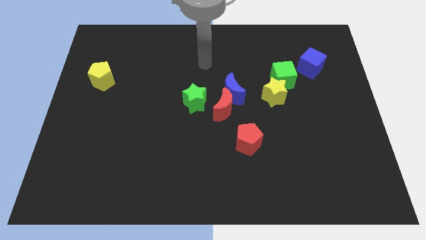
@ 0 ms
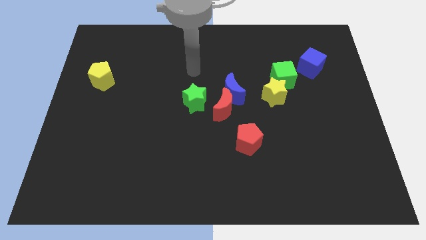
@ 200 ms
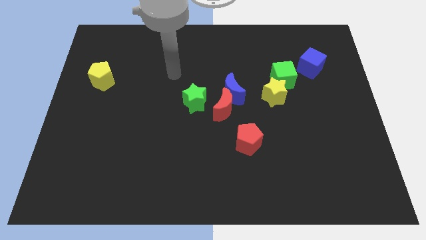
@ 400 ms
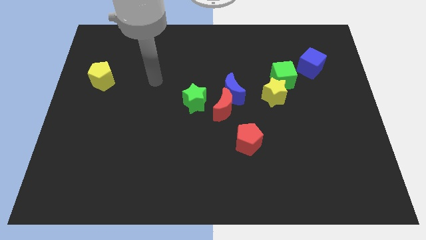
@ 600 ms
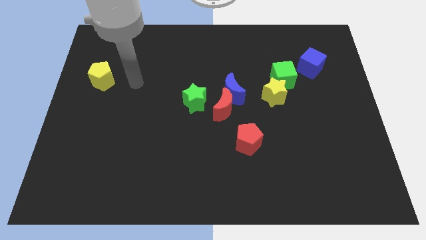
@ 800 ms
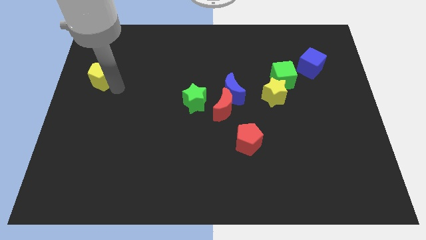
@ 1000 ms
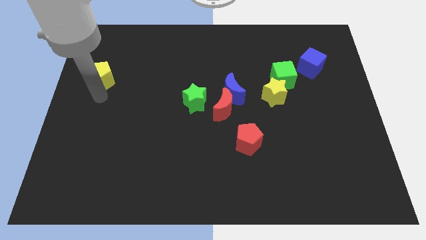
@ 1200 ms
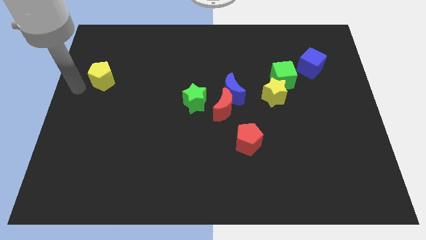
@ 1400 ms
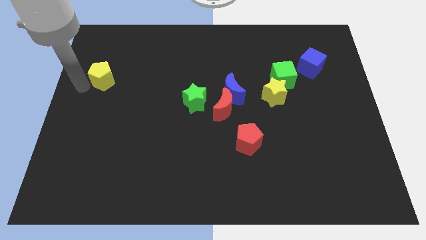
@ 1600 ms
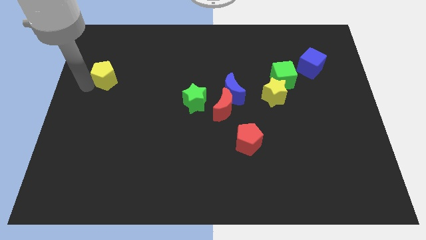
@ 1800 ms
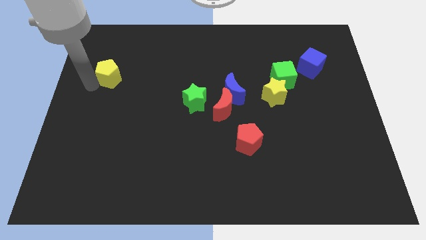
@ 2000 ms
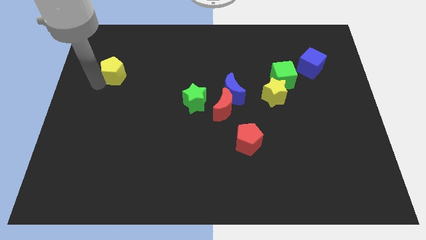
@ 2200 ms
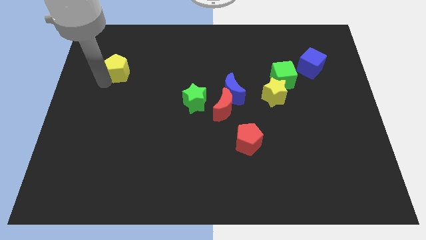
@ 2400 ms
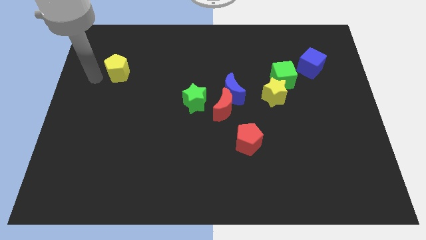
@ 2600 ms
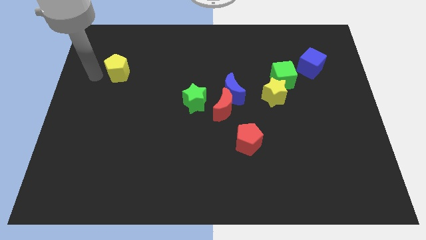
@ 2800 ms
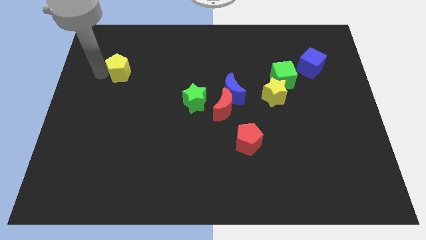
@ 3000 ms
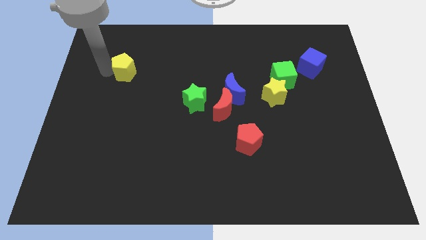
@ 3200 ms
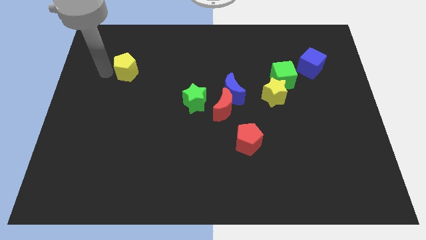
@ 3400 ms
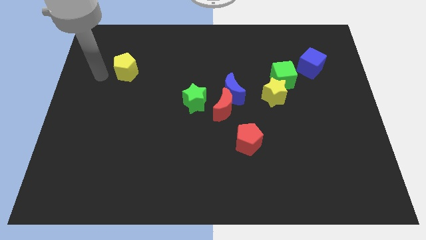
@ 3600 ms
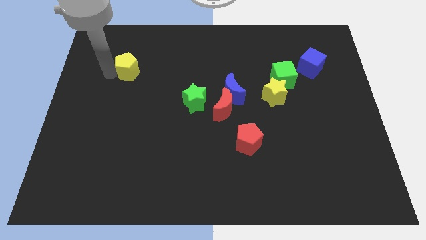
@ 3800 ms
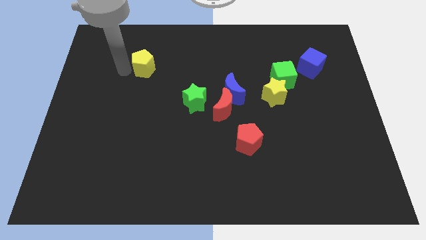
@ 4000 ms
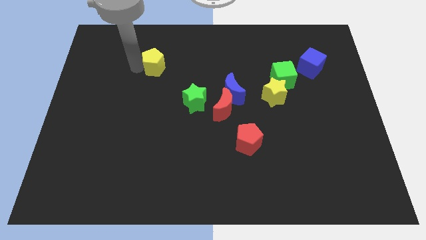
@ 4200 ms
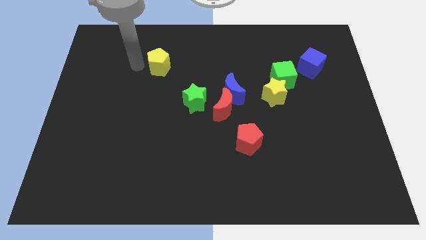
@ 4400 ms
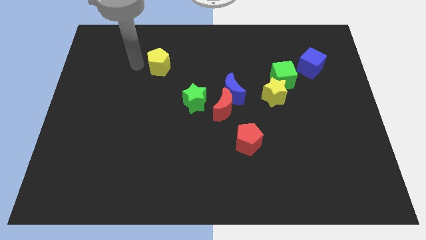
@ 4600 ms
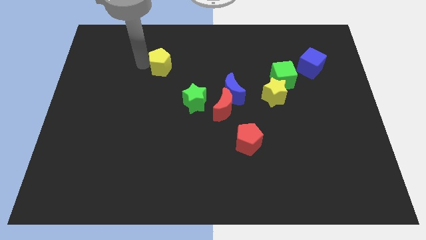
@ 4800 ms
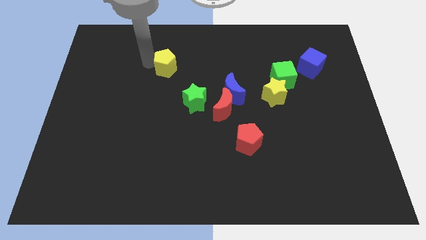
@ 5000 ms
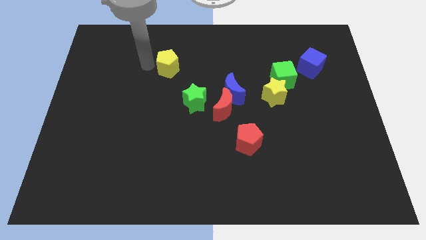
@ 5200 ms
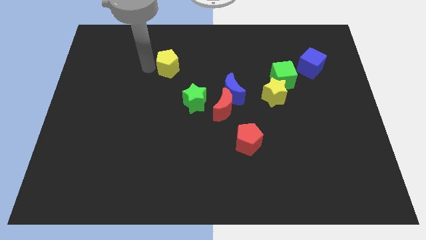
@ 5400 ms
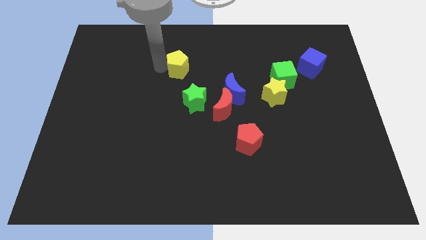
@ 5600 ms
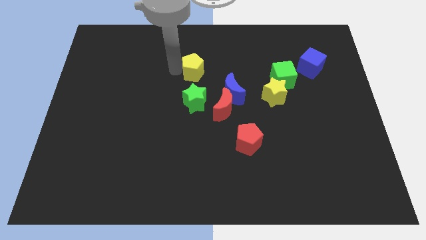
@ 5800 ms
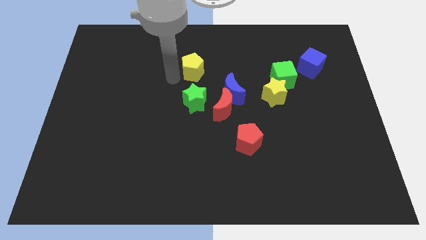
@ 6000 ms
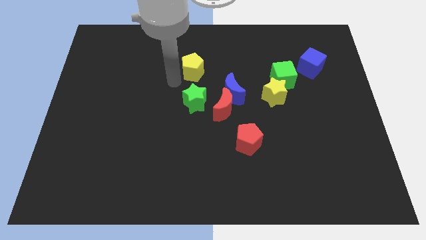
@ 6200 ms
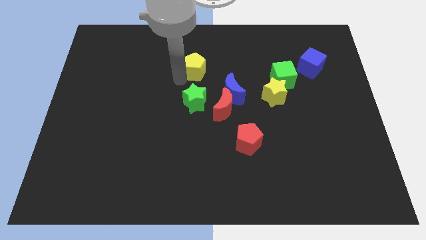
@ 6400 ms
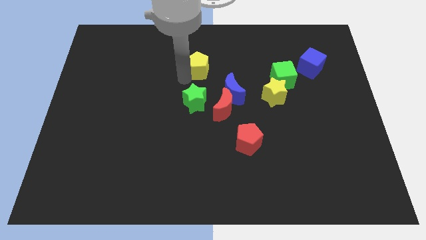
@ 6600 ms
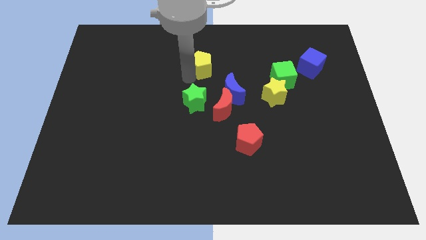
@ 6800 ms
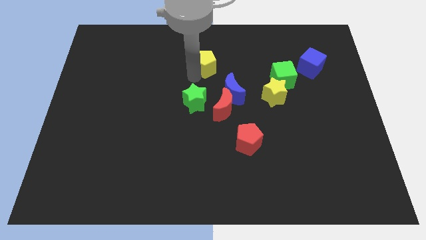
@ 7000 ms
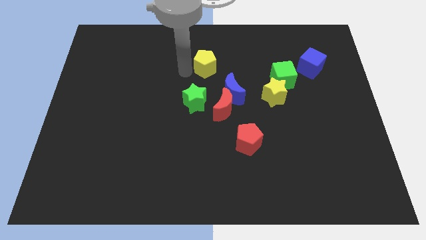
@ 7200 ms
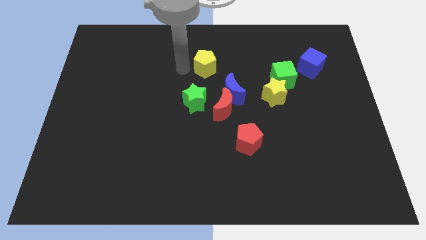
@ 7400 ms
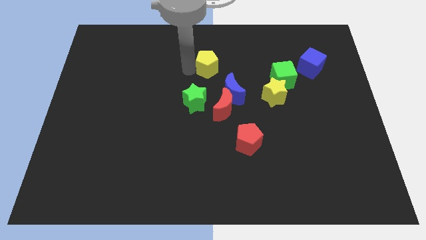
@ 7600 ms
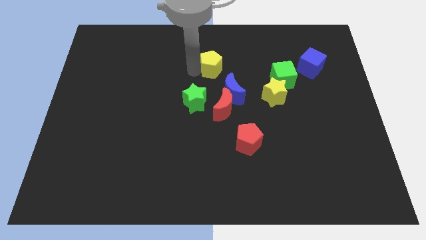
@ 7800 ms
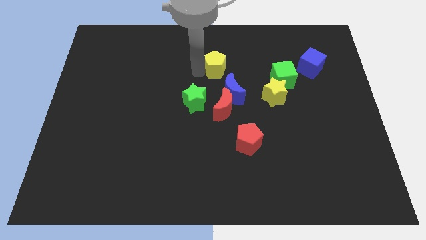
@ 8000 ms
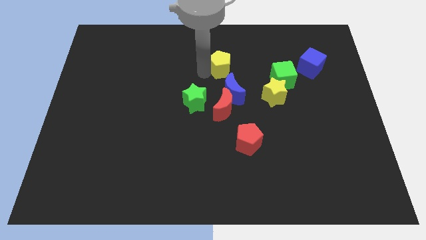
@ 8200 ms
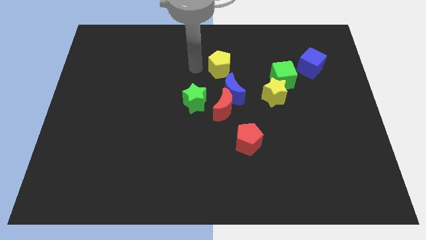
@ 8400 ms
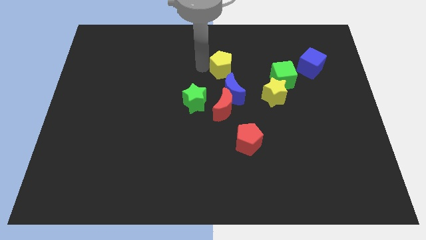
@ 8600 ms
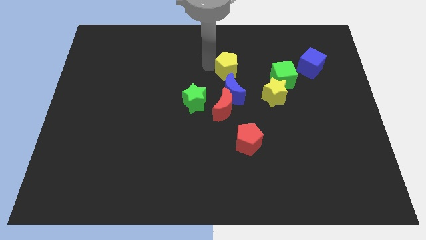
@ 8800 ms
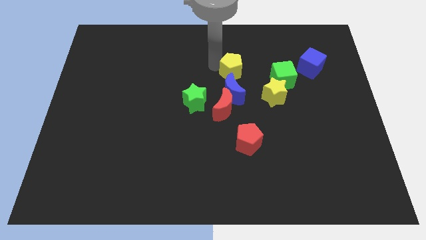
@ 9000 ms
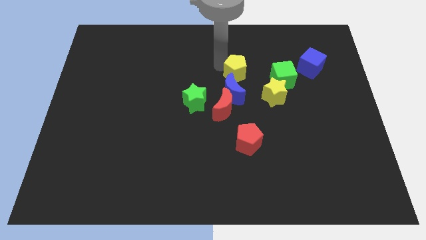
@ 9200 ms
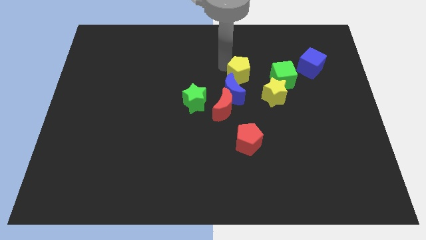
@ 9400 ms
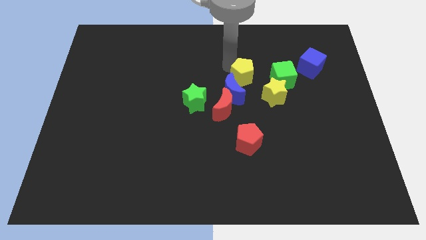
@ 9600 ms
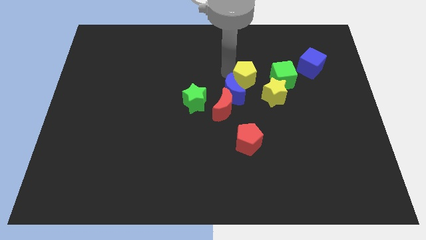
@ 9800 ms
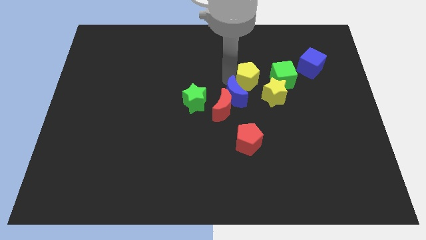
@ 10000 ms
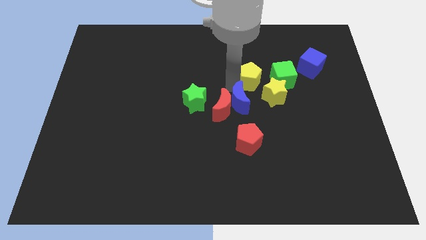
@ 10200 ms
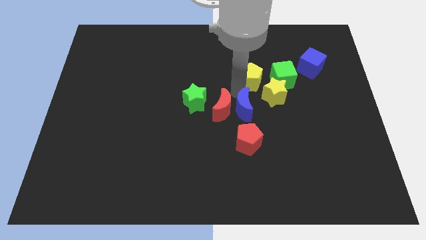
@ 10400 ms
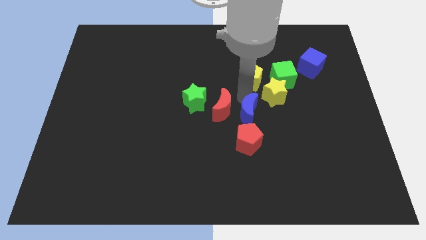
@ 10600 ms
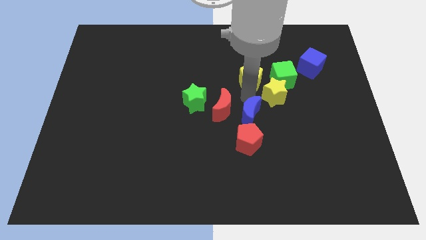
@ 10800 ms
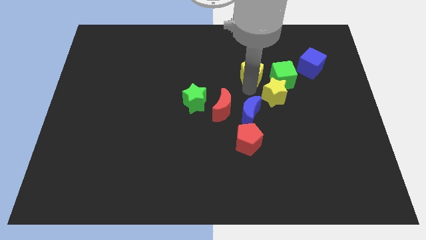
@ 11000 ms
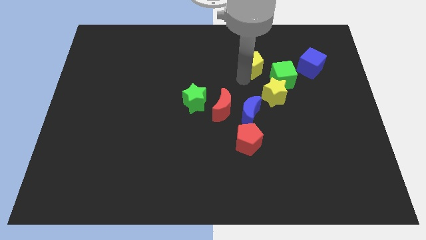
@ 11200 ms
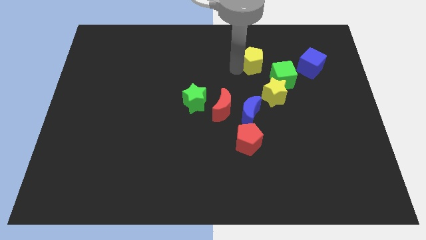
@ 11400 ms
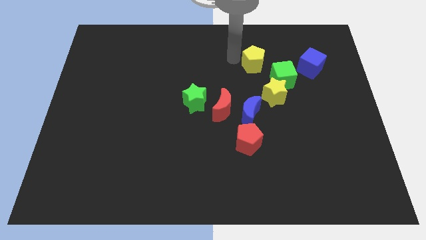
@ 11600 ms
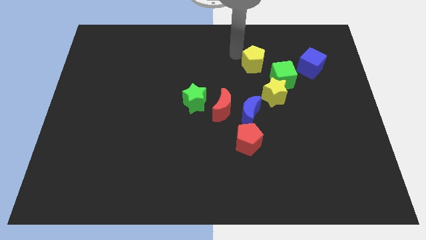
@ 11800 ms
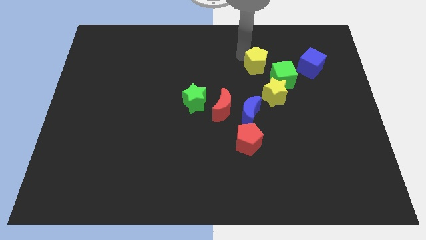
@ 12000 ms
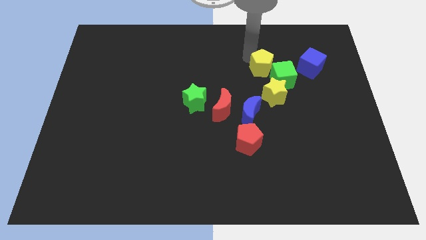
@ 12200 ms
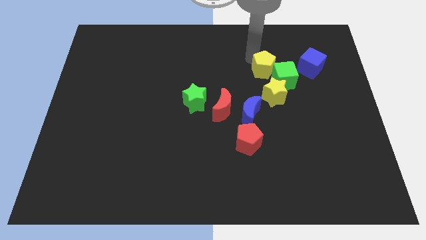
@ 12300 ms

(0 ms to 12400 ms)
push the yellow pentagon next to the green cube

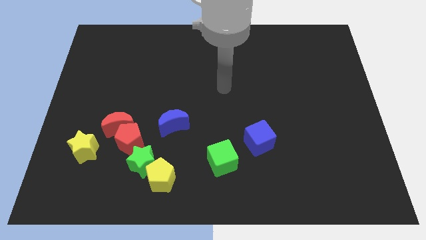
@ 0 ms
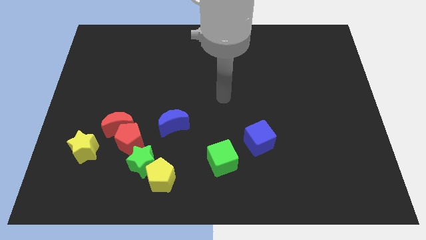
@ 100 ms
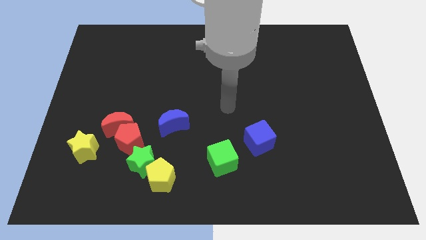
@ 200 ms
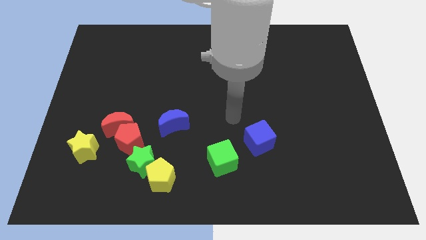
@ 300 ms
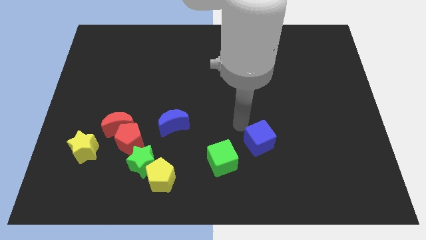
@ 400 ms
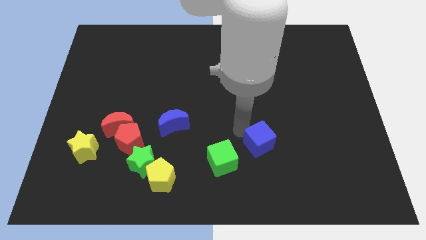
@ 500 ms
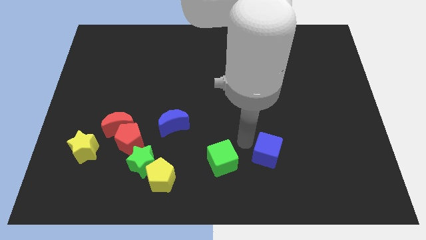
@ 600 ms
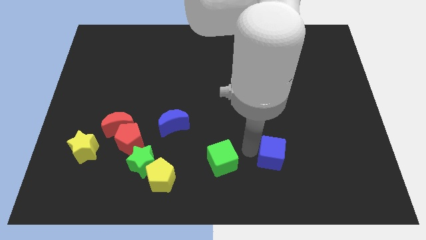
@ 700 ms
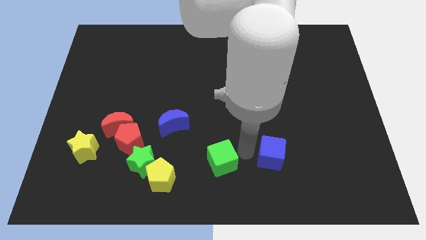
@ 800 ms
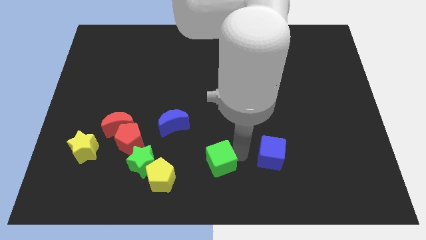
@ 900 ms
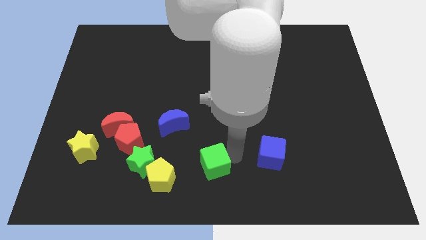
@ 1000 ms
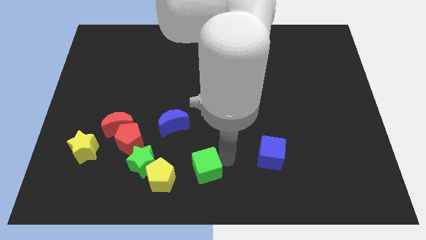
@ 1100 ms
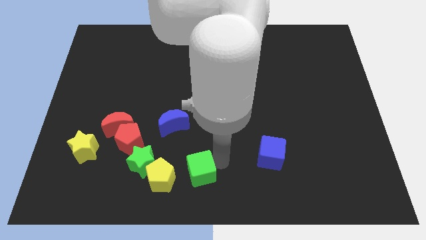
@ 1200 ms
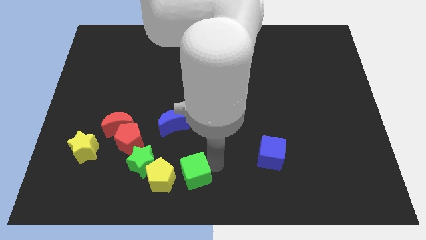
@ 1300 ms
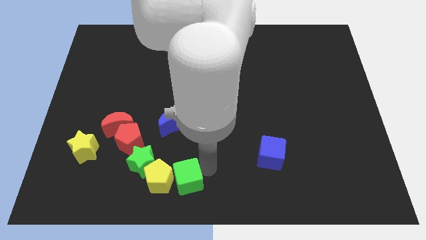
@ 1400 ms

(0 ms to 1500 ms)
push the green cube towards the yellow pentagon
